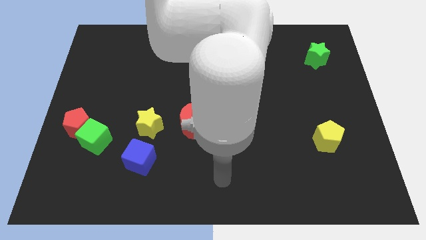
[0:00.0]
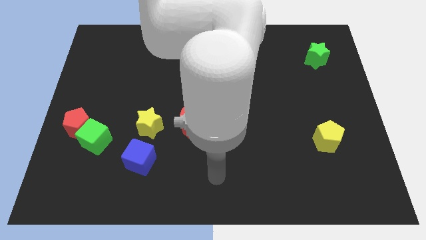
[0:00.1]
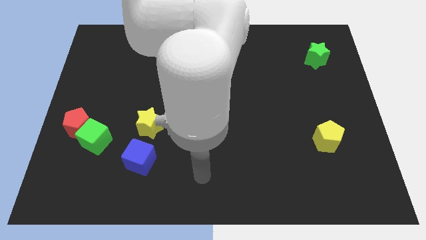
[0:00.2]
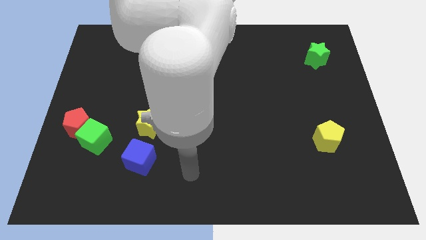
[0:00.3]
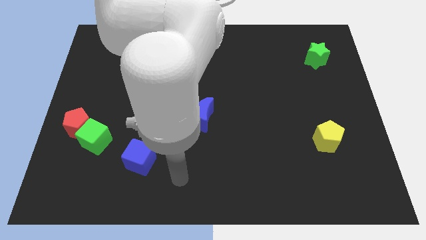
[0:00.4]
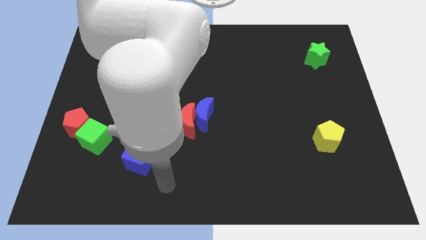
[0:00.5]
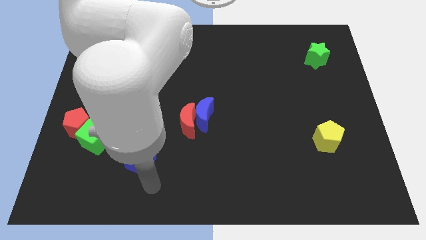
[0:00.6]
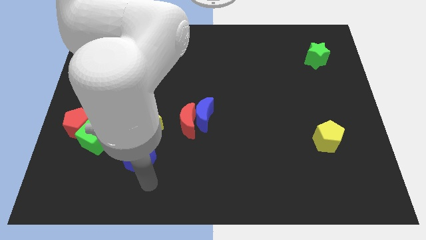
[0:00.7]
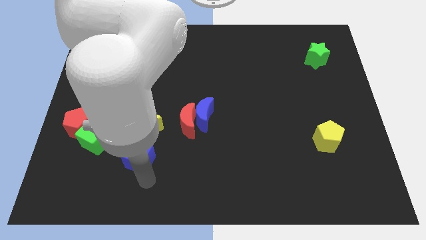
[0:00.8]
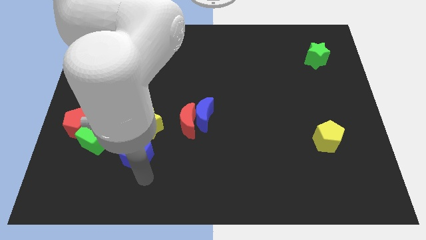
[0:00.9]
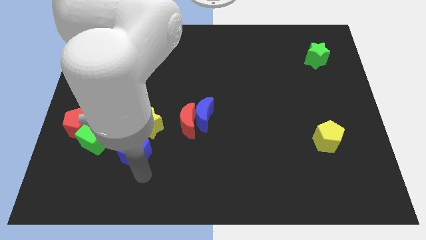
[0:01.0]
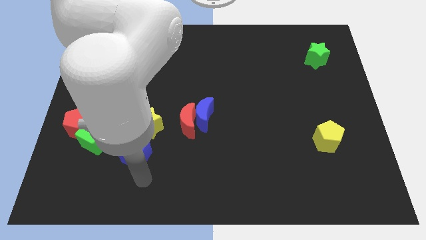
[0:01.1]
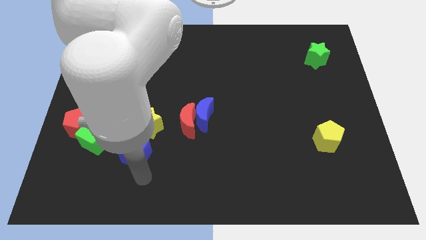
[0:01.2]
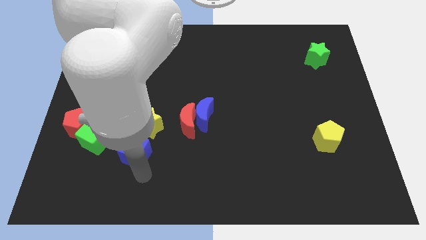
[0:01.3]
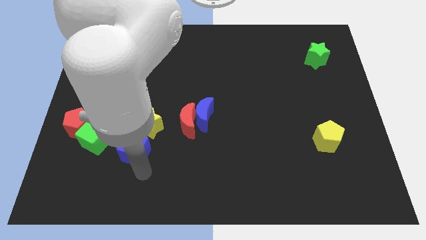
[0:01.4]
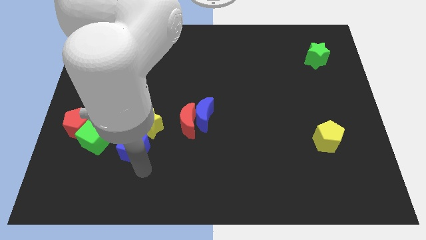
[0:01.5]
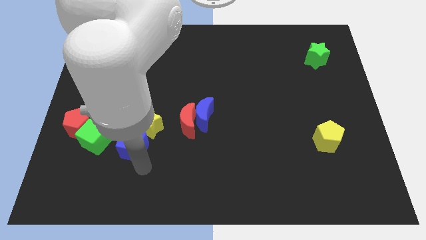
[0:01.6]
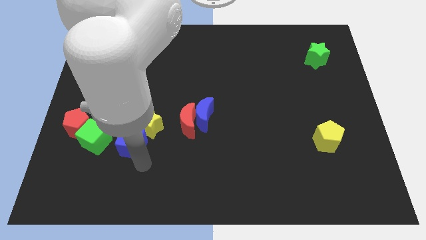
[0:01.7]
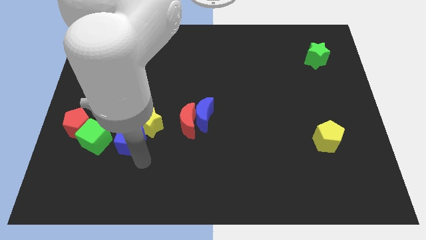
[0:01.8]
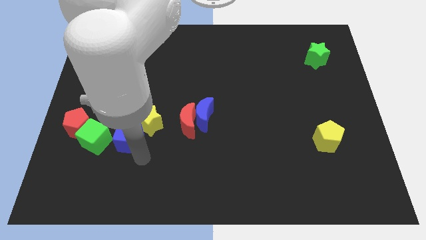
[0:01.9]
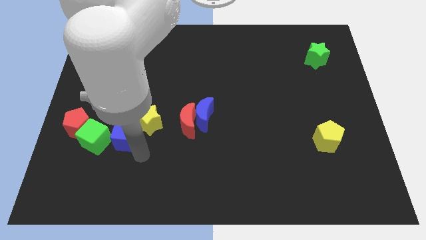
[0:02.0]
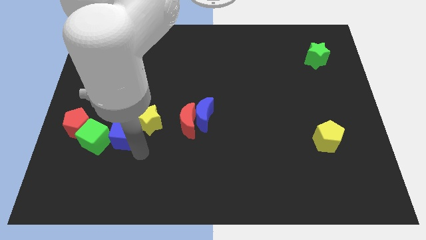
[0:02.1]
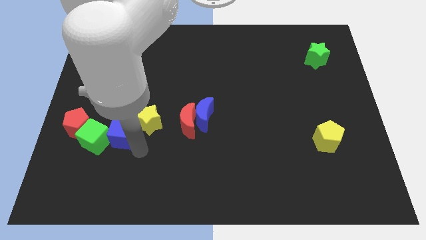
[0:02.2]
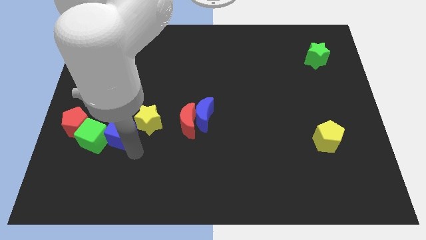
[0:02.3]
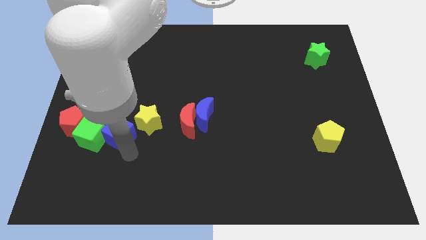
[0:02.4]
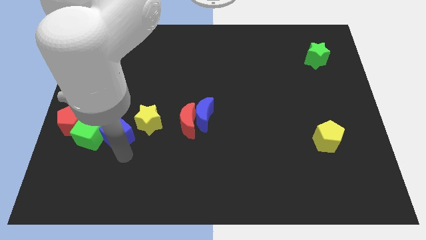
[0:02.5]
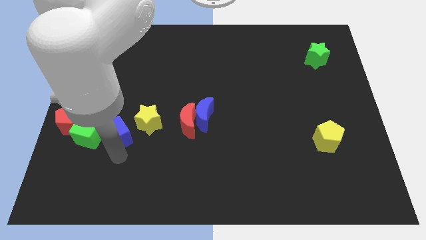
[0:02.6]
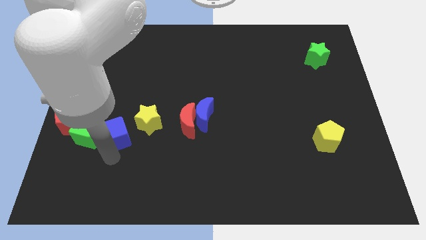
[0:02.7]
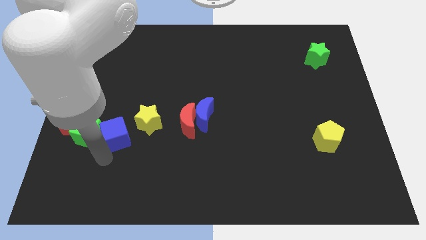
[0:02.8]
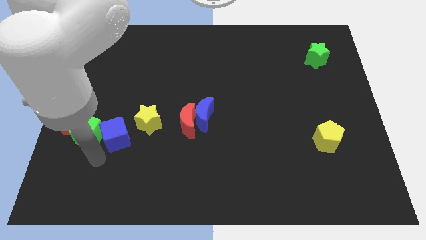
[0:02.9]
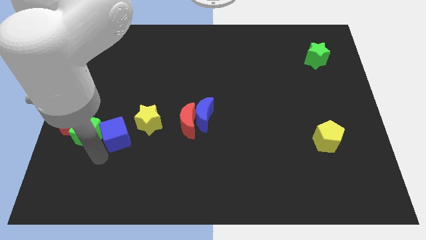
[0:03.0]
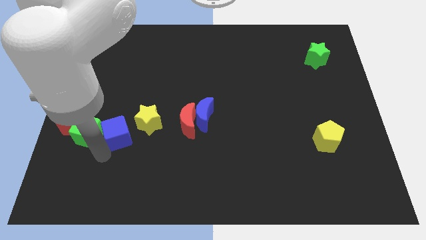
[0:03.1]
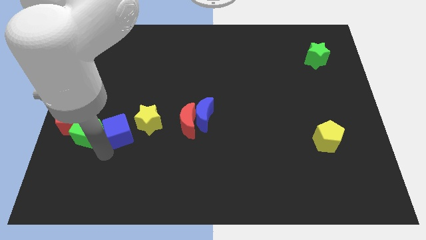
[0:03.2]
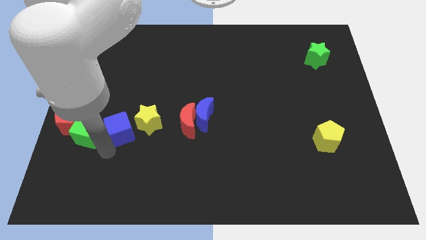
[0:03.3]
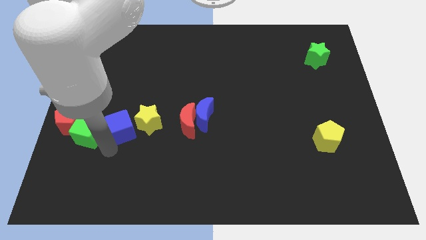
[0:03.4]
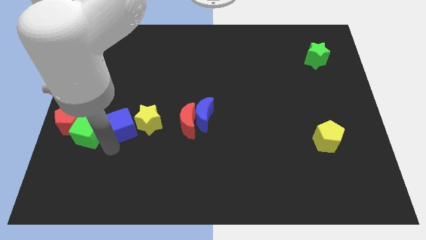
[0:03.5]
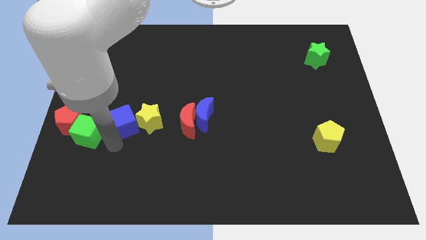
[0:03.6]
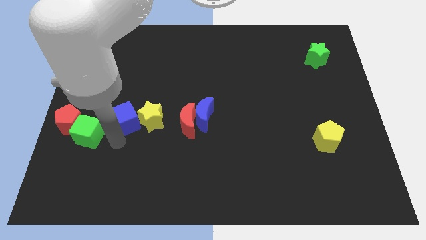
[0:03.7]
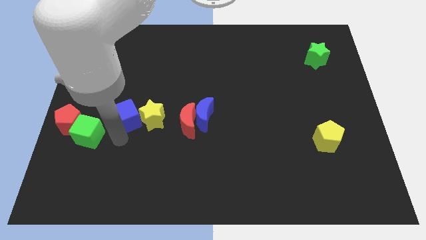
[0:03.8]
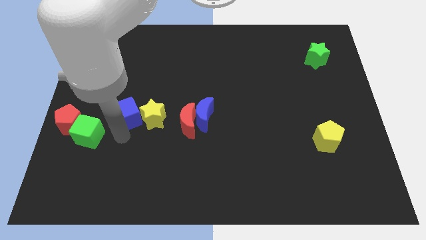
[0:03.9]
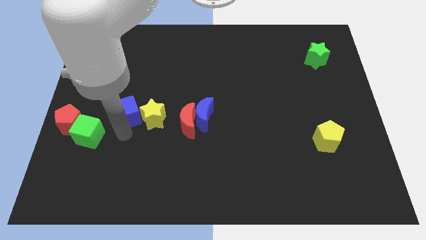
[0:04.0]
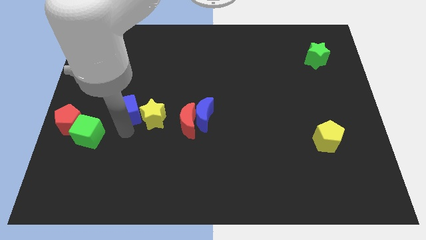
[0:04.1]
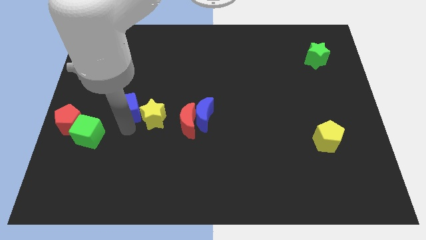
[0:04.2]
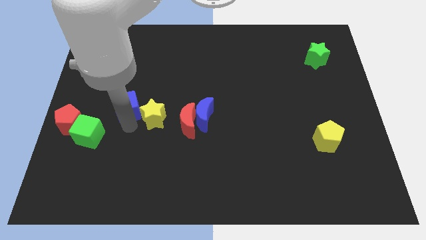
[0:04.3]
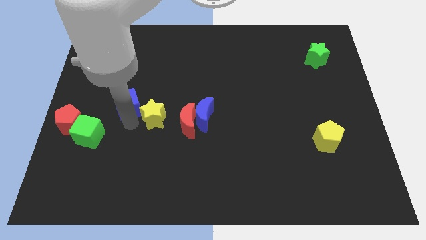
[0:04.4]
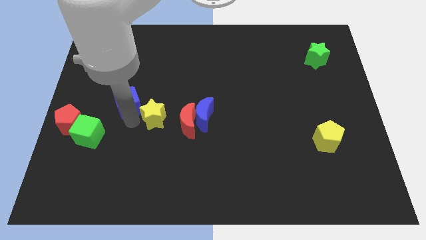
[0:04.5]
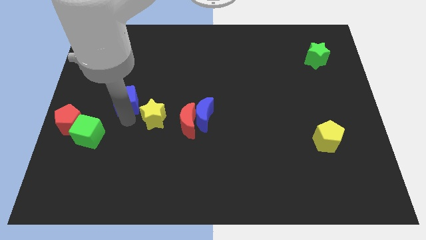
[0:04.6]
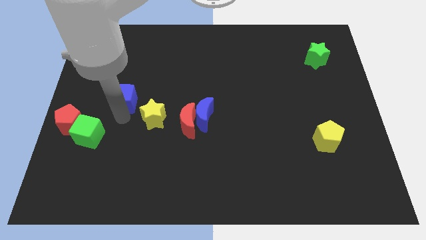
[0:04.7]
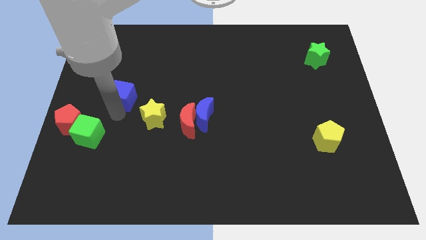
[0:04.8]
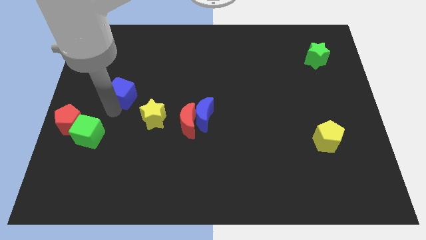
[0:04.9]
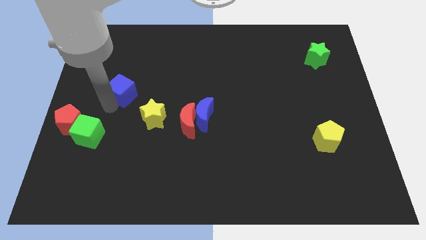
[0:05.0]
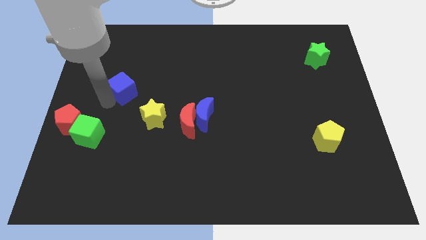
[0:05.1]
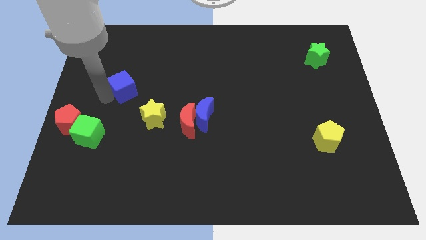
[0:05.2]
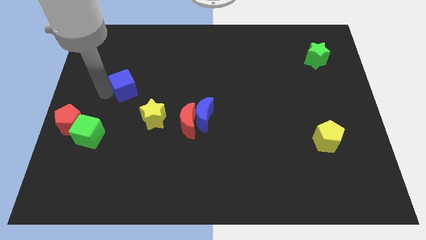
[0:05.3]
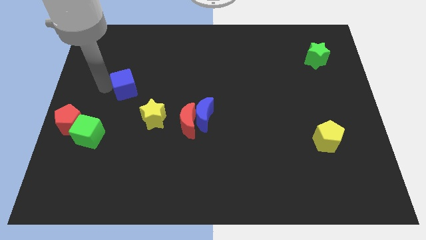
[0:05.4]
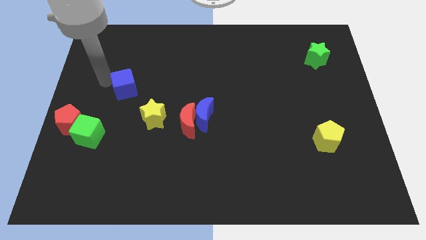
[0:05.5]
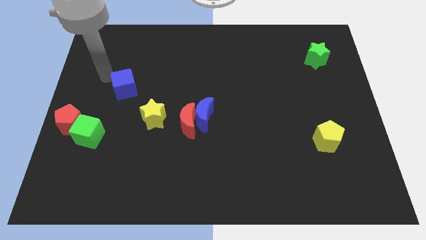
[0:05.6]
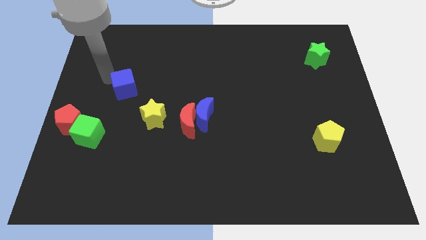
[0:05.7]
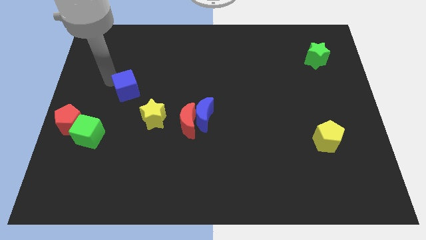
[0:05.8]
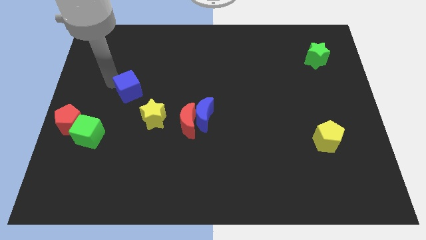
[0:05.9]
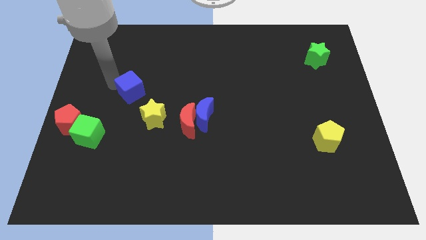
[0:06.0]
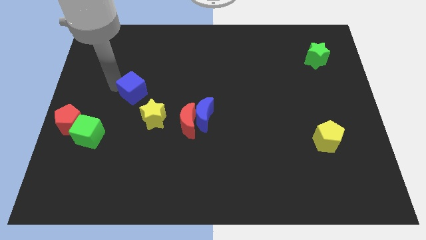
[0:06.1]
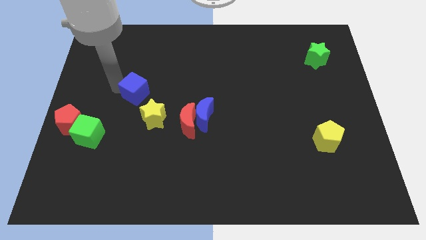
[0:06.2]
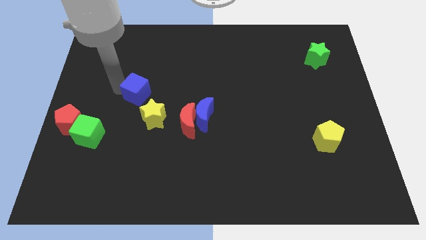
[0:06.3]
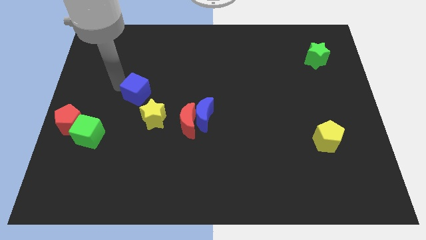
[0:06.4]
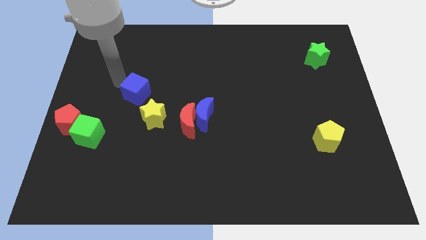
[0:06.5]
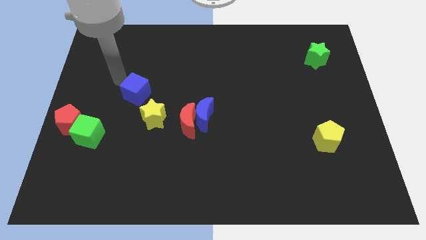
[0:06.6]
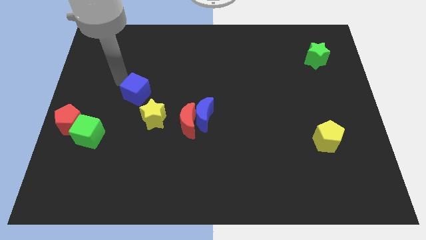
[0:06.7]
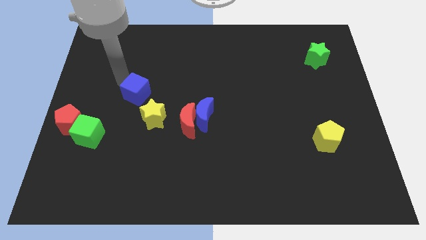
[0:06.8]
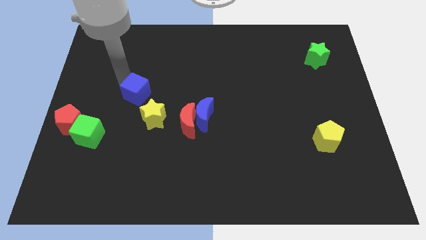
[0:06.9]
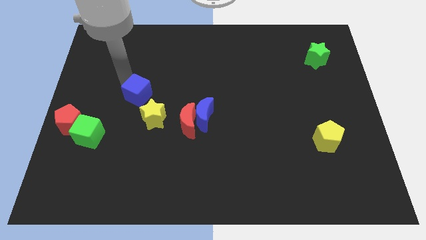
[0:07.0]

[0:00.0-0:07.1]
move the blue cube to the top of the yellow star

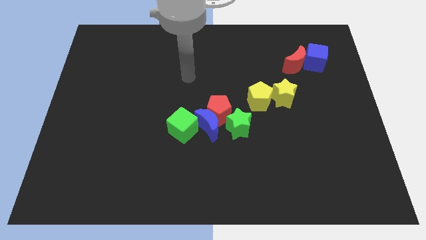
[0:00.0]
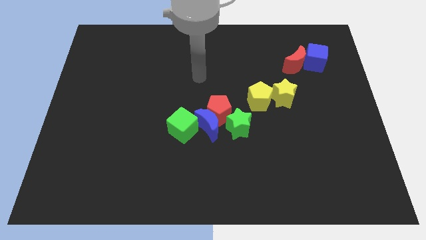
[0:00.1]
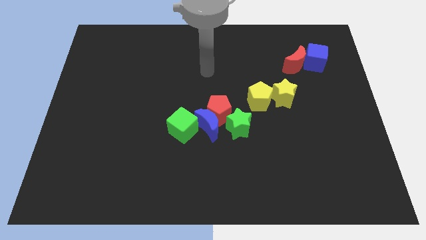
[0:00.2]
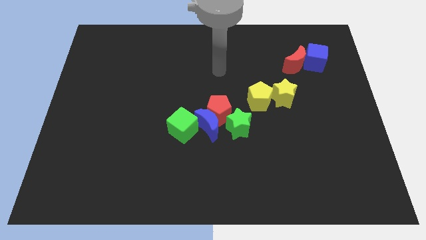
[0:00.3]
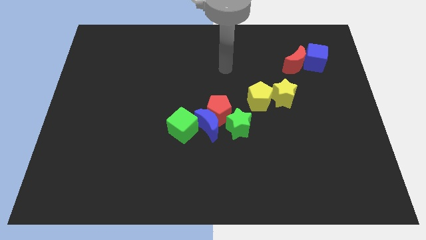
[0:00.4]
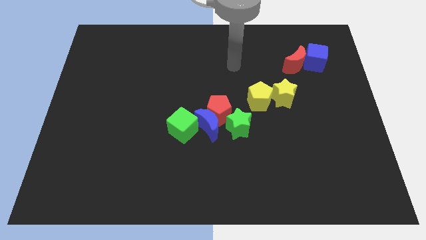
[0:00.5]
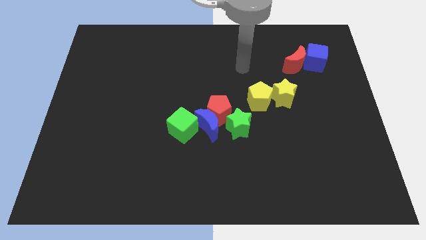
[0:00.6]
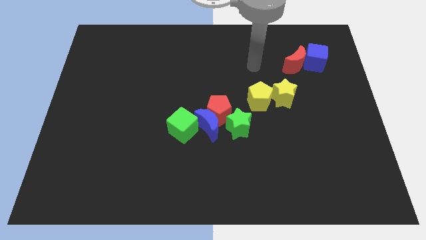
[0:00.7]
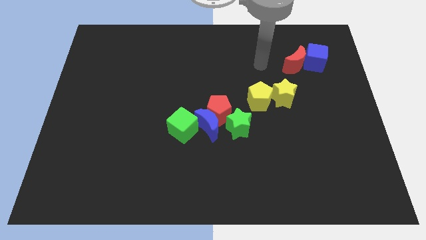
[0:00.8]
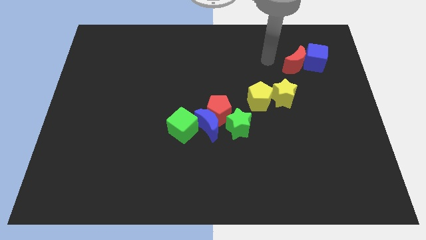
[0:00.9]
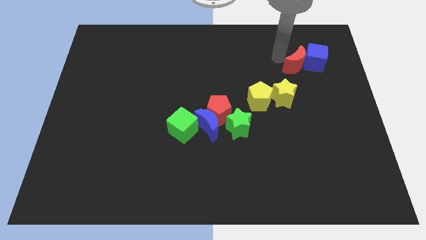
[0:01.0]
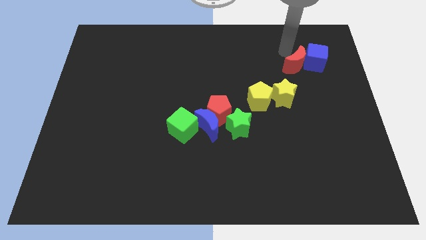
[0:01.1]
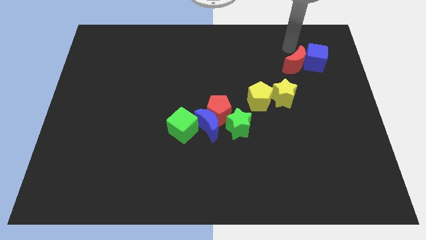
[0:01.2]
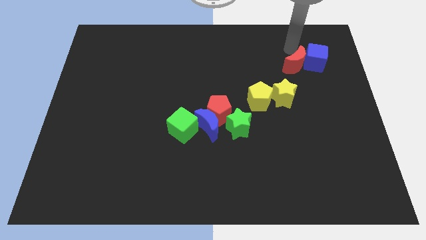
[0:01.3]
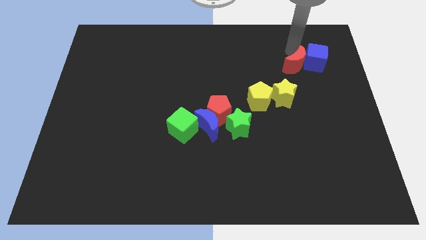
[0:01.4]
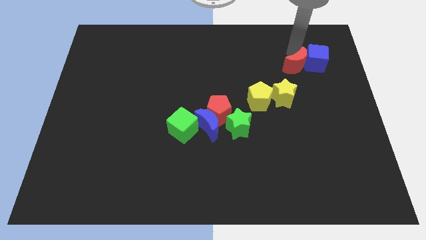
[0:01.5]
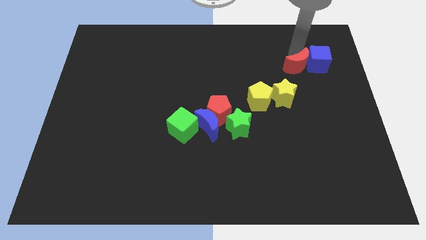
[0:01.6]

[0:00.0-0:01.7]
move the red moon to the top right of the yellow star
